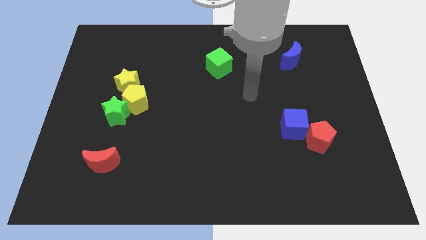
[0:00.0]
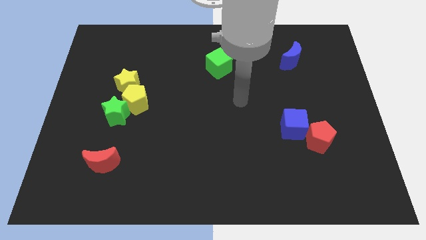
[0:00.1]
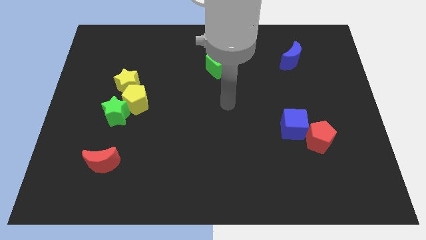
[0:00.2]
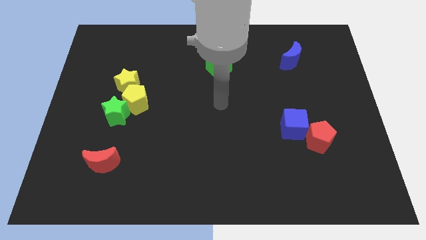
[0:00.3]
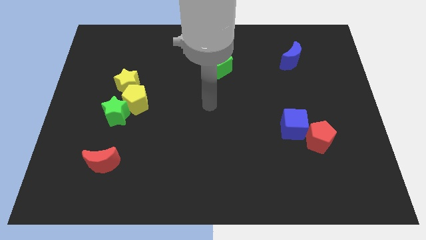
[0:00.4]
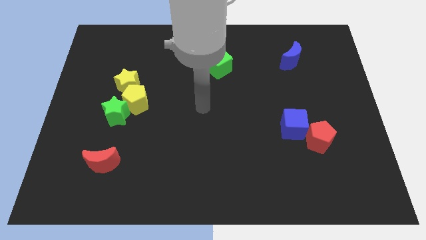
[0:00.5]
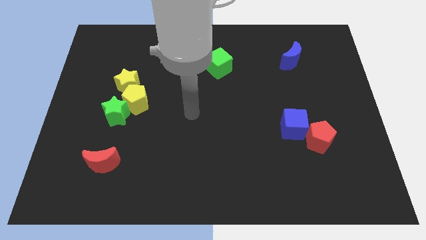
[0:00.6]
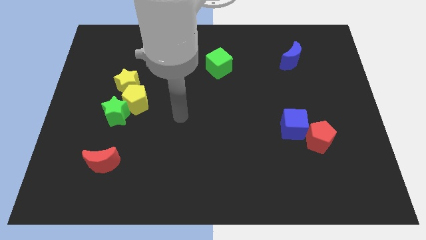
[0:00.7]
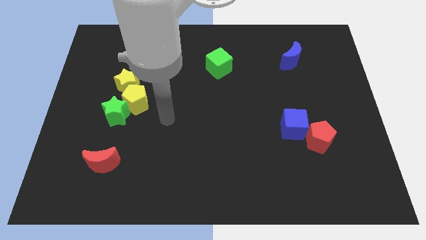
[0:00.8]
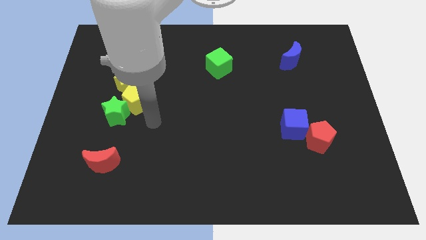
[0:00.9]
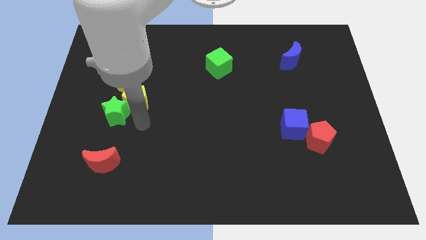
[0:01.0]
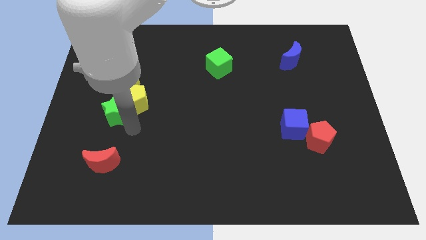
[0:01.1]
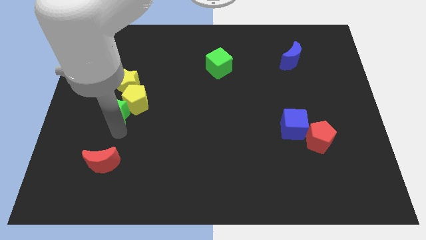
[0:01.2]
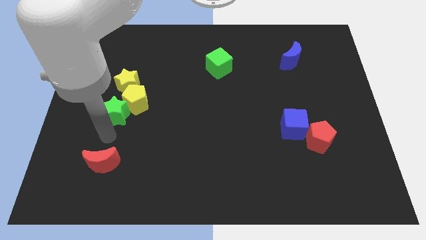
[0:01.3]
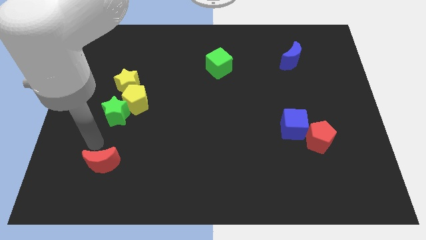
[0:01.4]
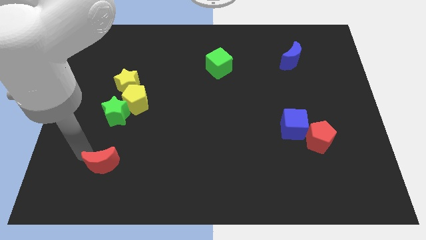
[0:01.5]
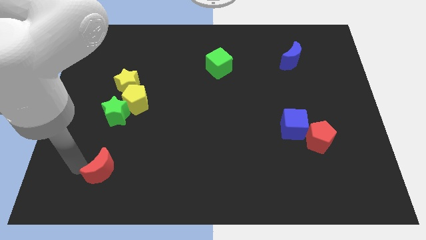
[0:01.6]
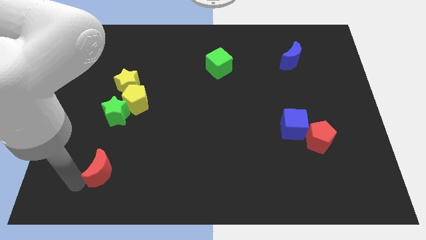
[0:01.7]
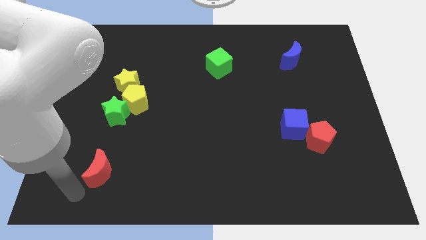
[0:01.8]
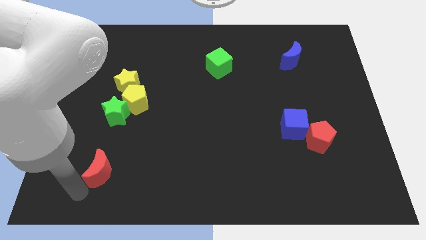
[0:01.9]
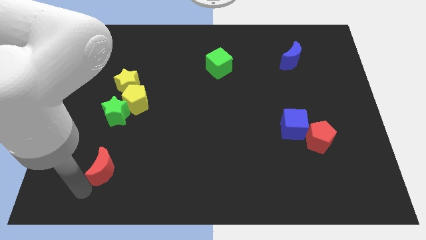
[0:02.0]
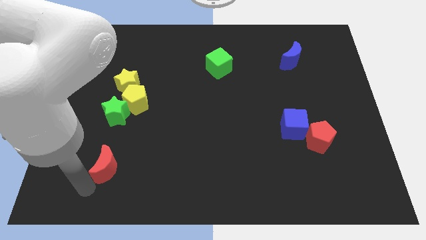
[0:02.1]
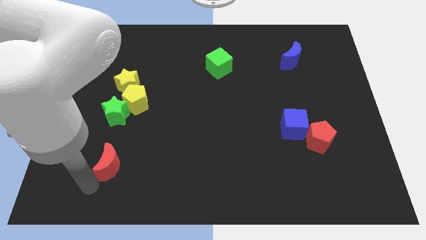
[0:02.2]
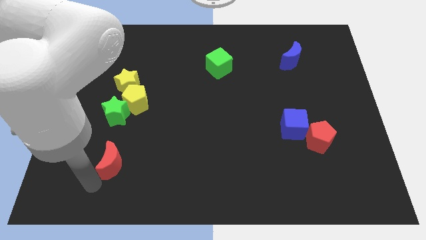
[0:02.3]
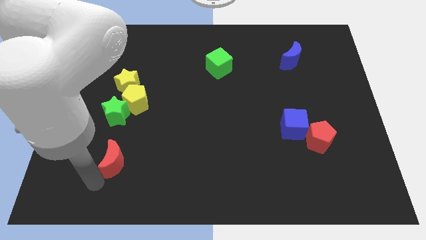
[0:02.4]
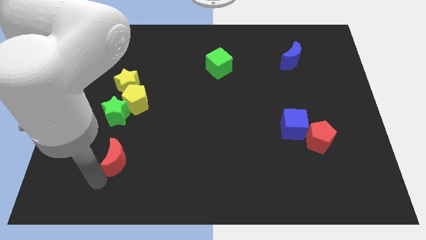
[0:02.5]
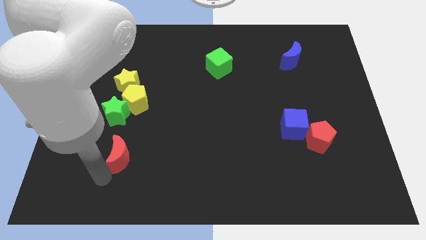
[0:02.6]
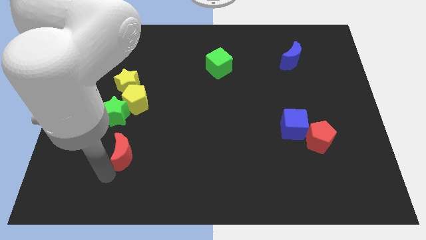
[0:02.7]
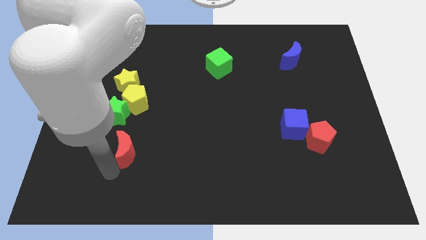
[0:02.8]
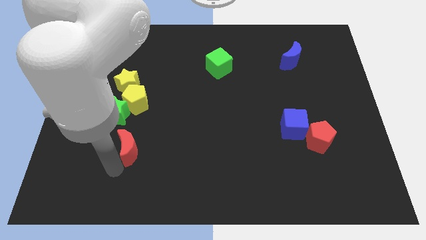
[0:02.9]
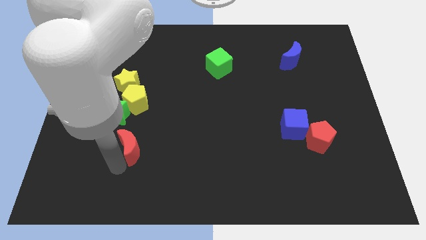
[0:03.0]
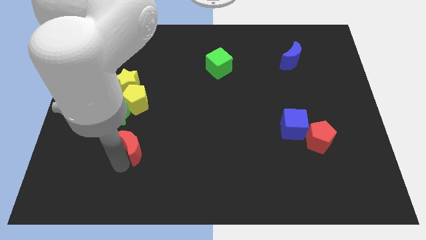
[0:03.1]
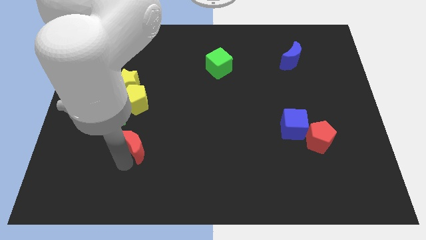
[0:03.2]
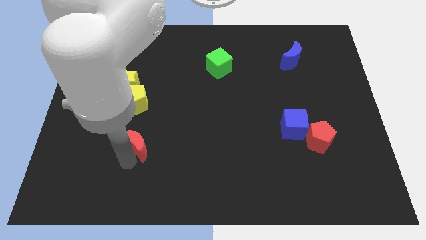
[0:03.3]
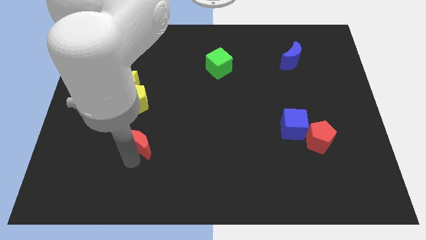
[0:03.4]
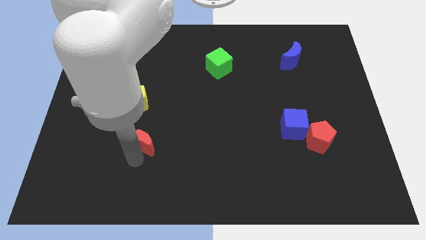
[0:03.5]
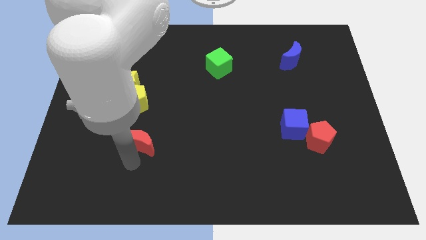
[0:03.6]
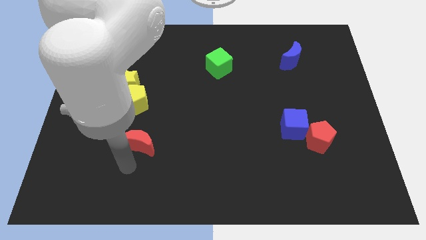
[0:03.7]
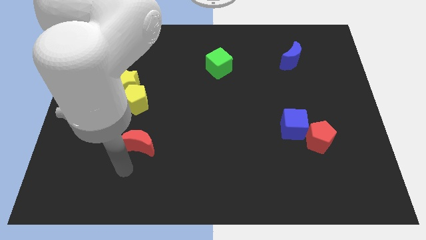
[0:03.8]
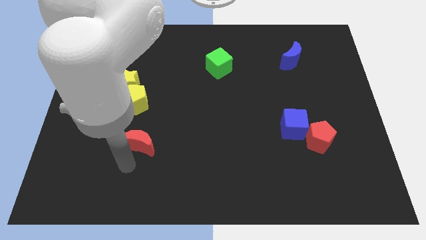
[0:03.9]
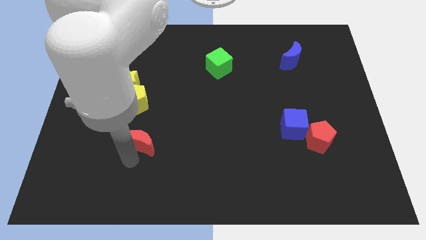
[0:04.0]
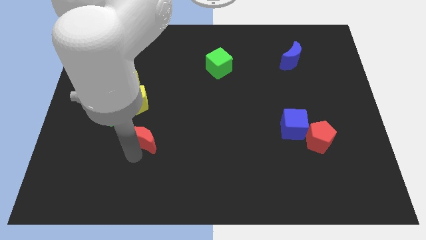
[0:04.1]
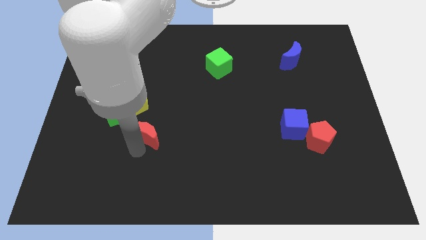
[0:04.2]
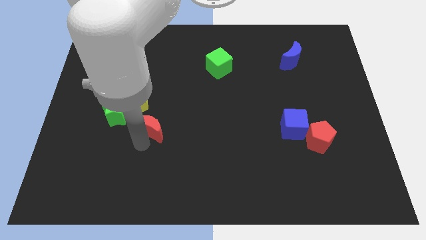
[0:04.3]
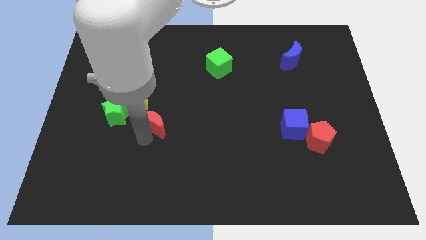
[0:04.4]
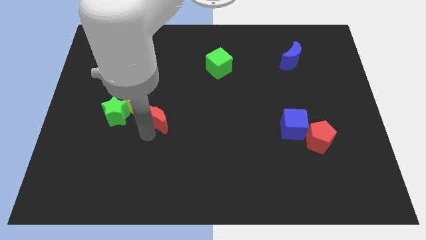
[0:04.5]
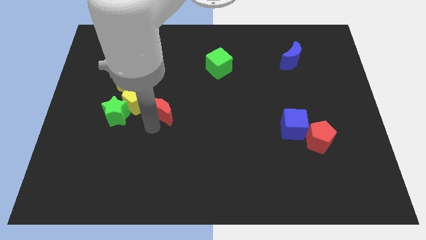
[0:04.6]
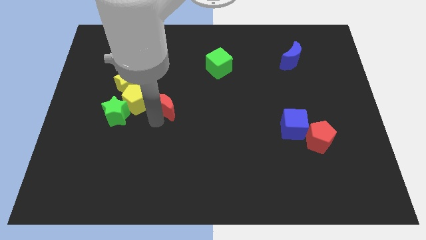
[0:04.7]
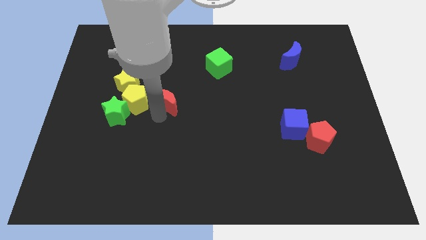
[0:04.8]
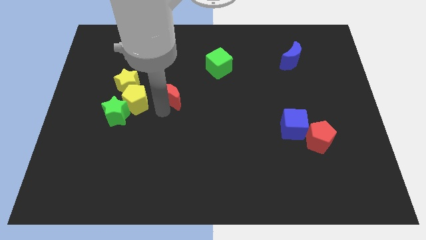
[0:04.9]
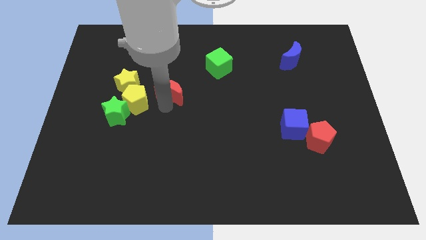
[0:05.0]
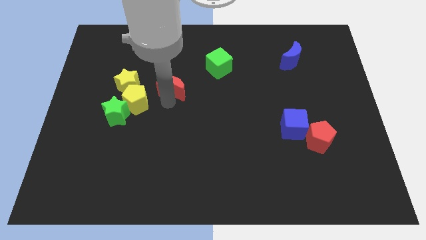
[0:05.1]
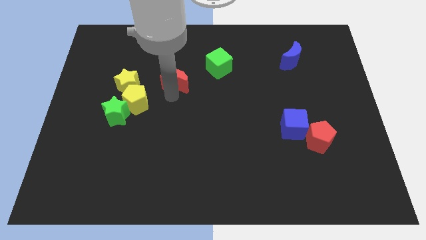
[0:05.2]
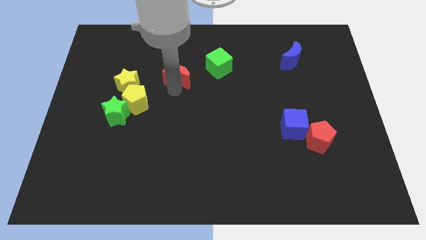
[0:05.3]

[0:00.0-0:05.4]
push the red moon to the left side of the green cube

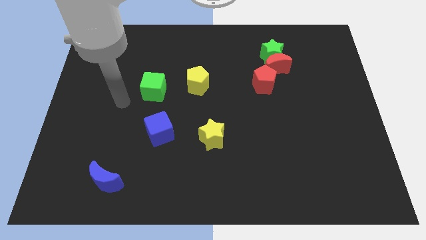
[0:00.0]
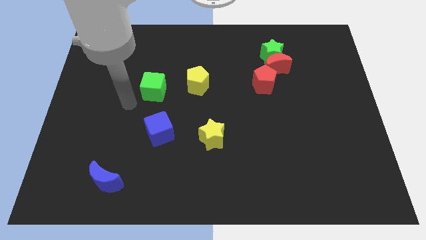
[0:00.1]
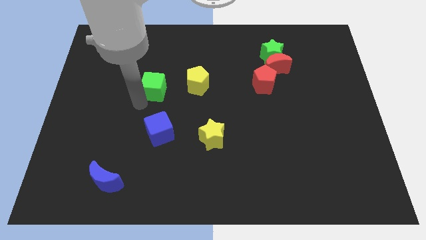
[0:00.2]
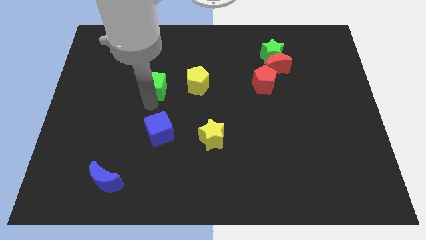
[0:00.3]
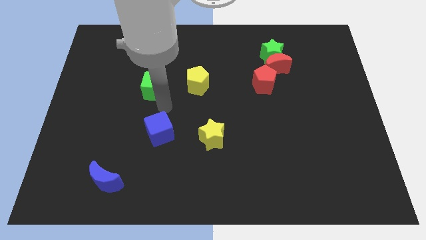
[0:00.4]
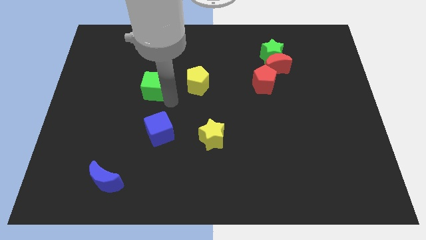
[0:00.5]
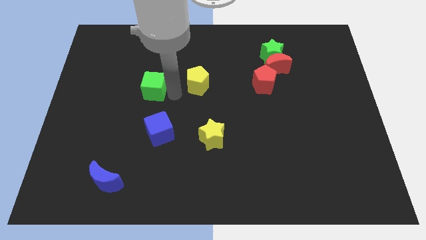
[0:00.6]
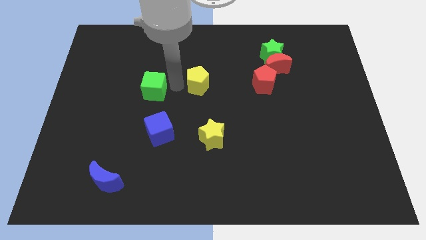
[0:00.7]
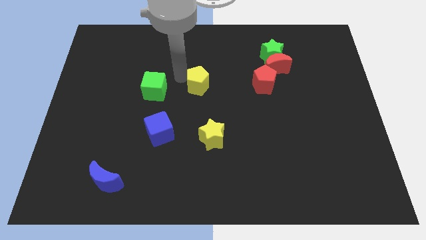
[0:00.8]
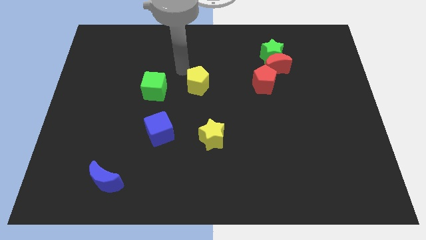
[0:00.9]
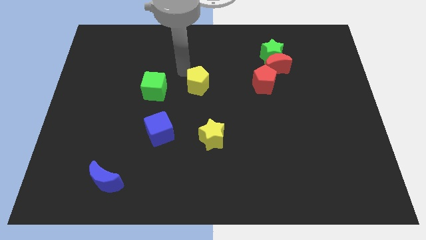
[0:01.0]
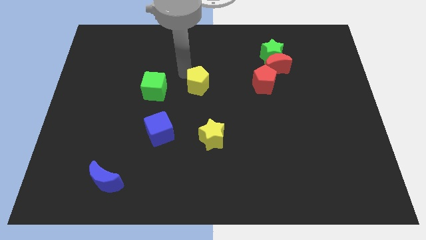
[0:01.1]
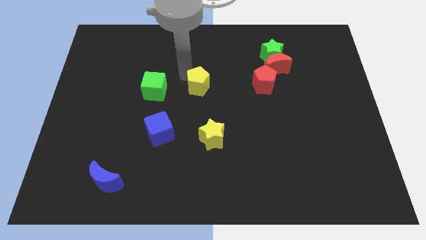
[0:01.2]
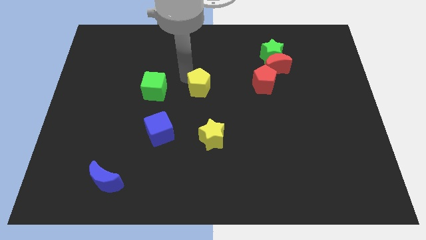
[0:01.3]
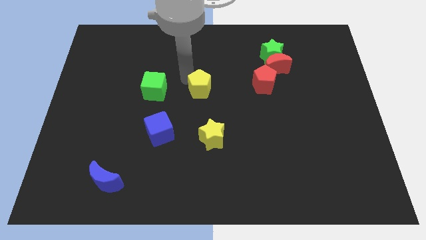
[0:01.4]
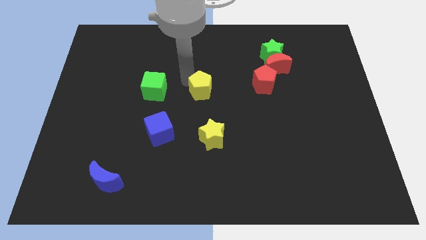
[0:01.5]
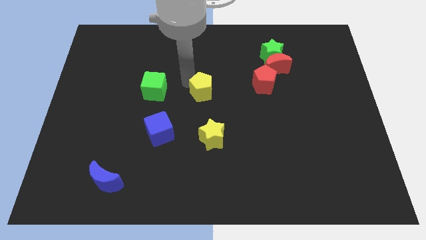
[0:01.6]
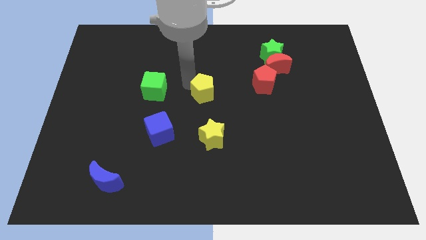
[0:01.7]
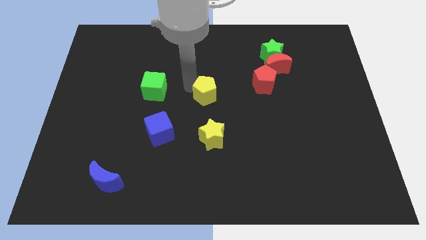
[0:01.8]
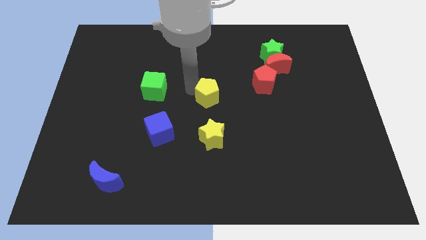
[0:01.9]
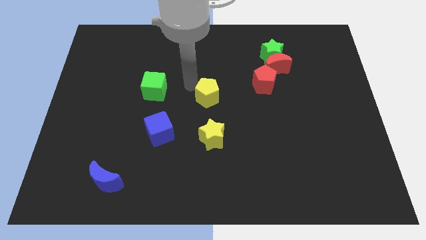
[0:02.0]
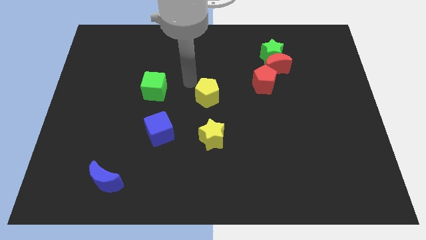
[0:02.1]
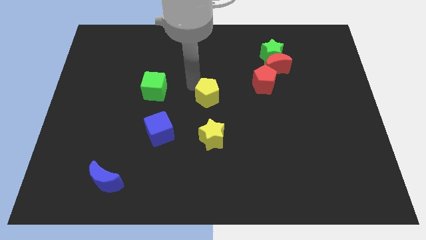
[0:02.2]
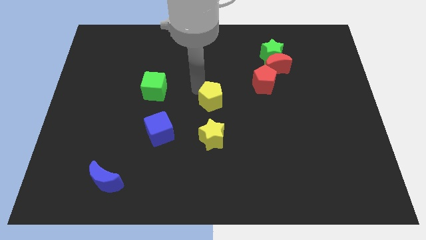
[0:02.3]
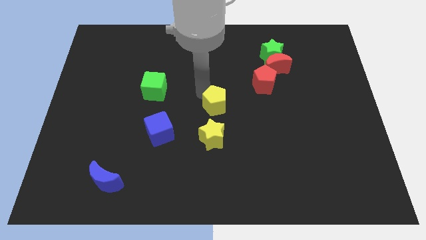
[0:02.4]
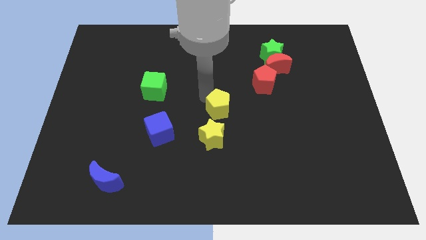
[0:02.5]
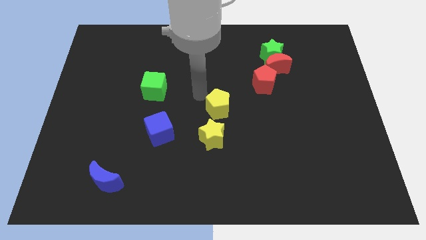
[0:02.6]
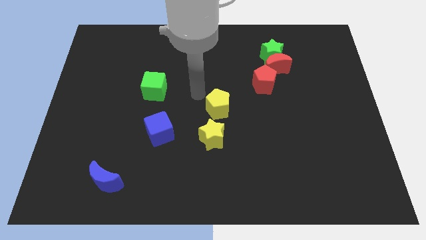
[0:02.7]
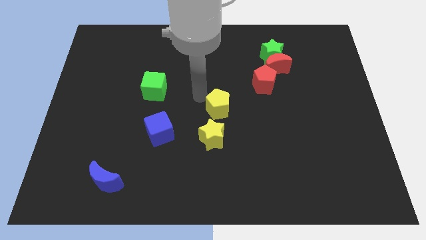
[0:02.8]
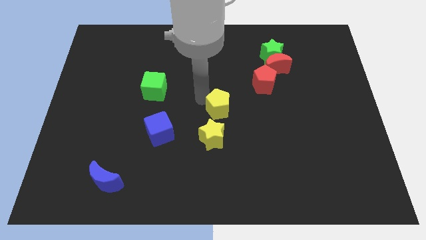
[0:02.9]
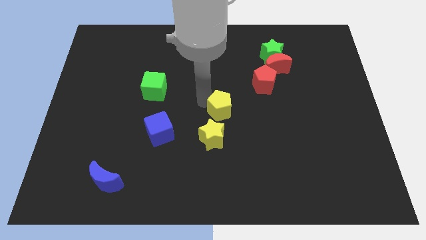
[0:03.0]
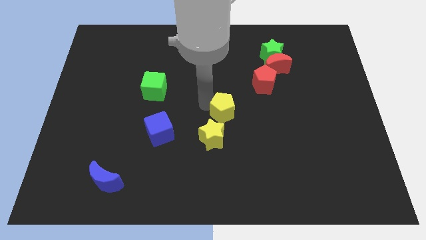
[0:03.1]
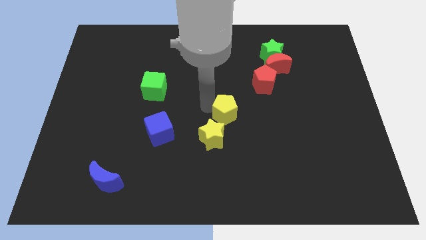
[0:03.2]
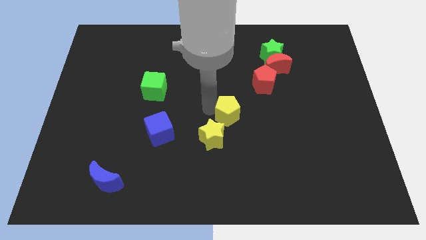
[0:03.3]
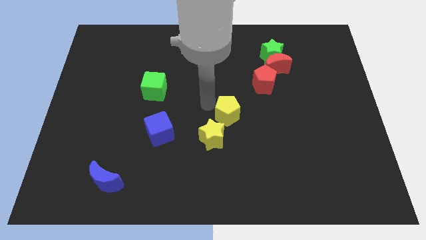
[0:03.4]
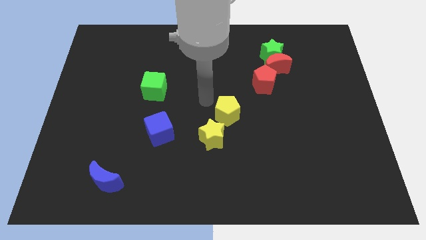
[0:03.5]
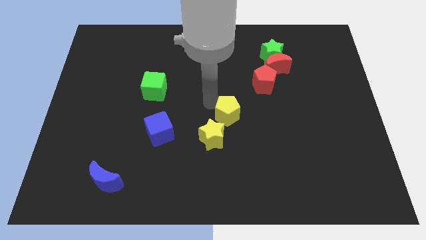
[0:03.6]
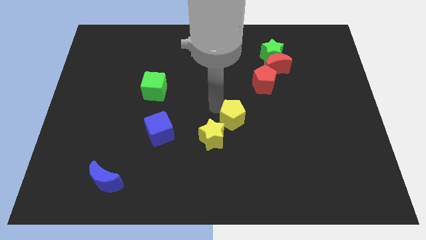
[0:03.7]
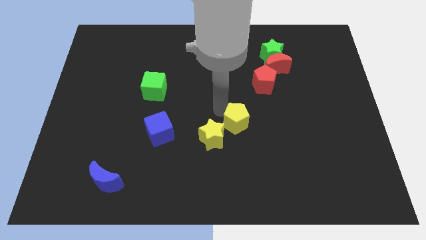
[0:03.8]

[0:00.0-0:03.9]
move the yellow pentagon to the right side of the yellow star
